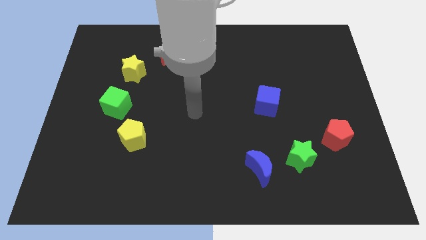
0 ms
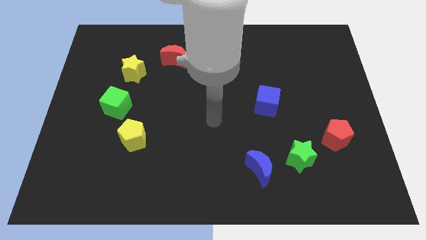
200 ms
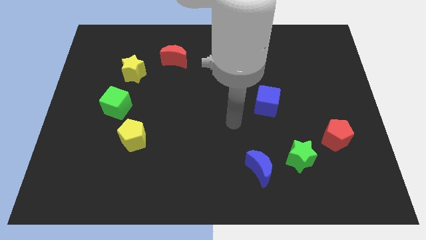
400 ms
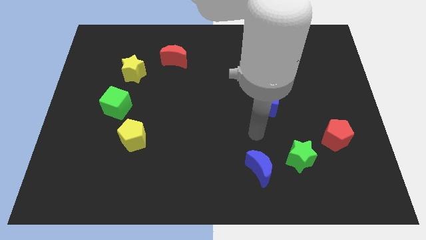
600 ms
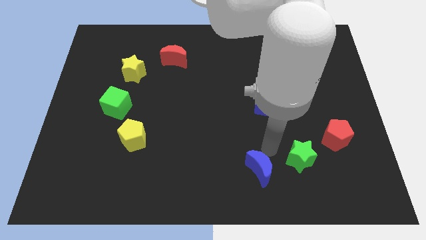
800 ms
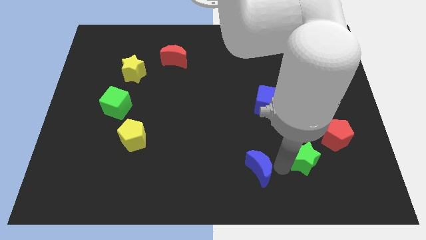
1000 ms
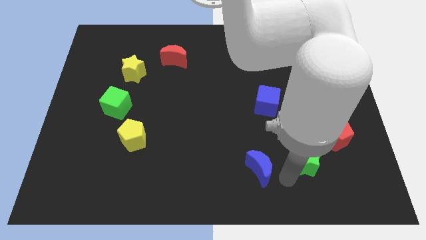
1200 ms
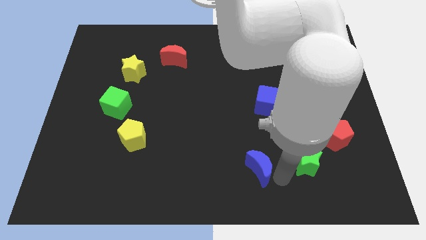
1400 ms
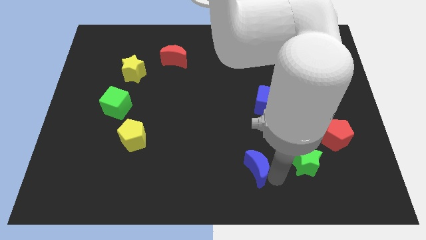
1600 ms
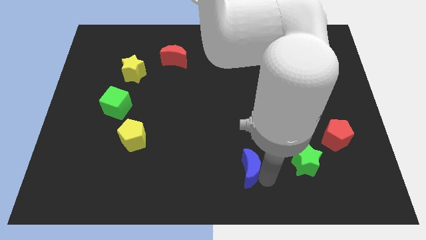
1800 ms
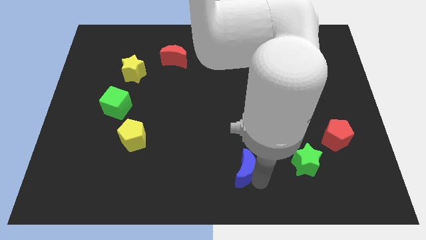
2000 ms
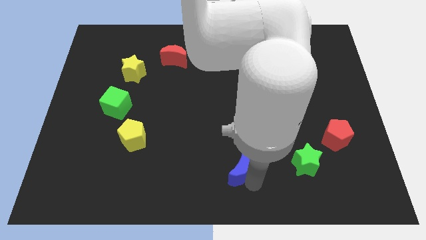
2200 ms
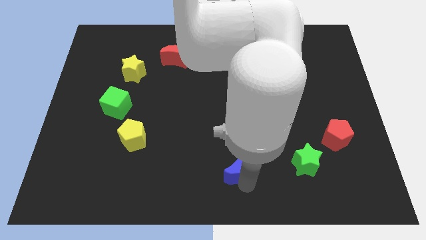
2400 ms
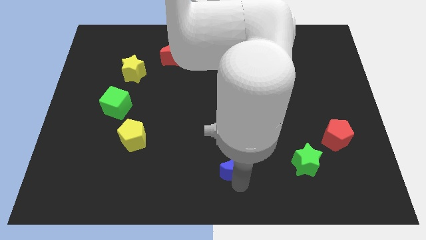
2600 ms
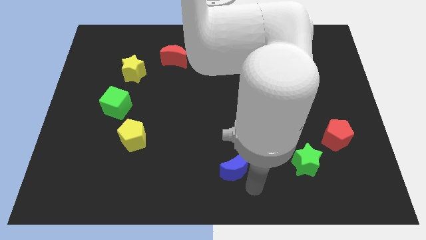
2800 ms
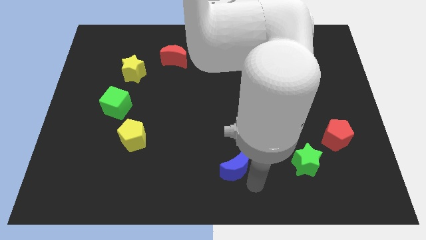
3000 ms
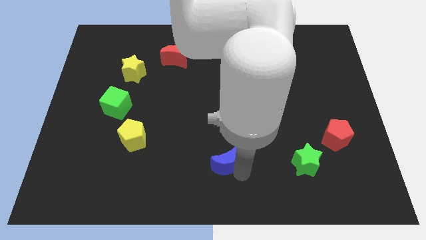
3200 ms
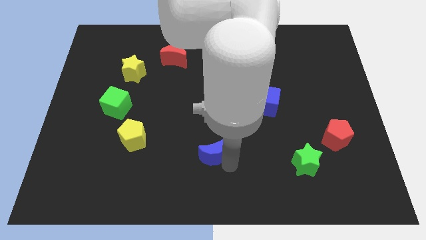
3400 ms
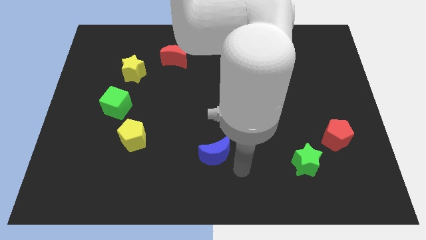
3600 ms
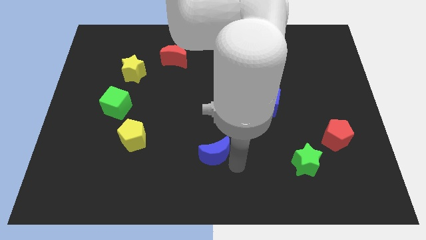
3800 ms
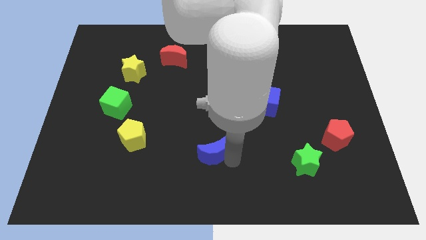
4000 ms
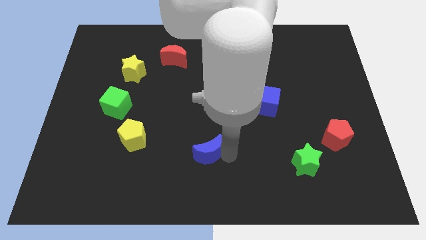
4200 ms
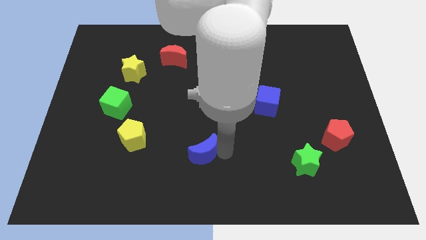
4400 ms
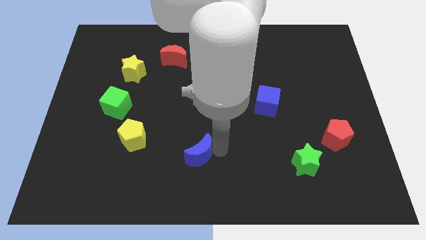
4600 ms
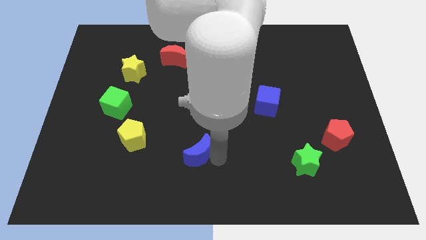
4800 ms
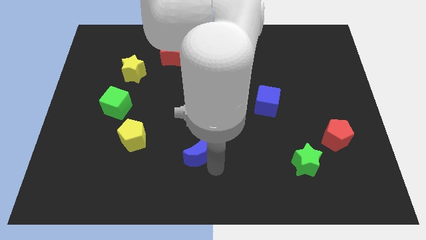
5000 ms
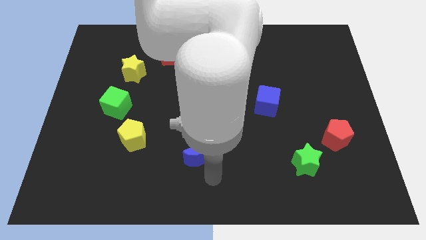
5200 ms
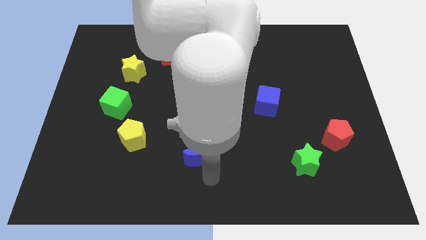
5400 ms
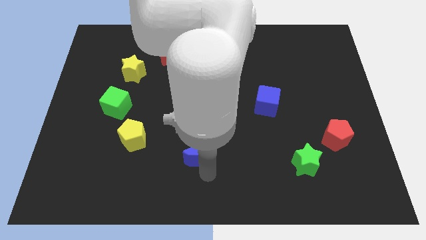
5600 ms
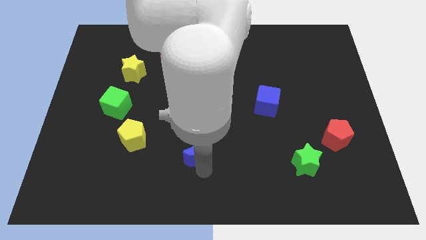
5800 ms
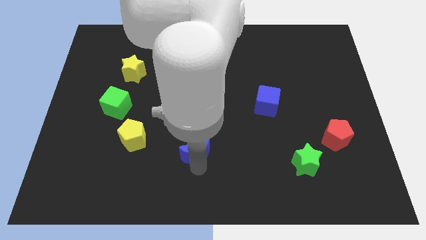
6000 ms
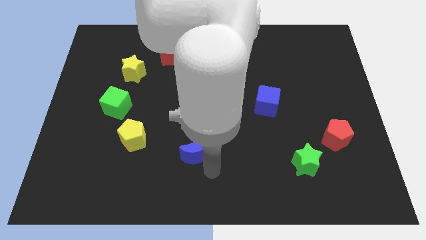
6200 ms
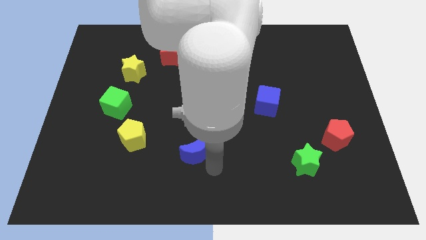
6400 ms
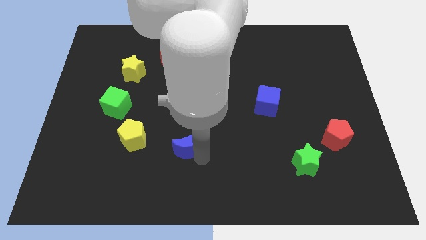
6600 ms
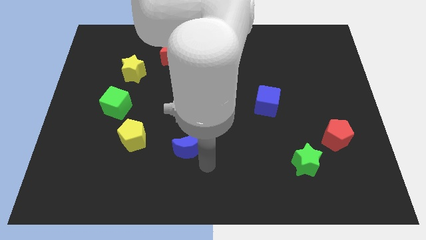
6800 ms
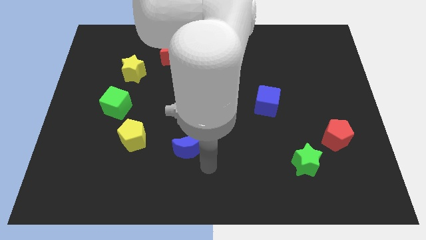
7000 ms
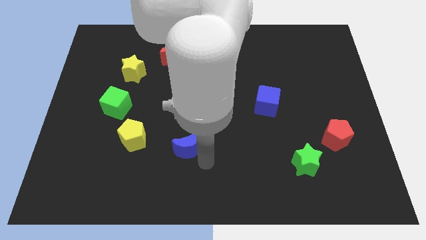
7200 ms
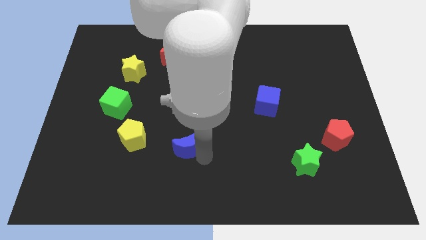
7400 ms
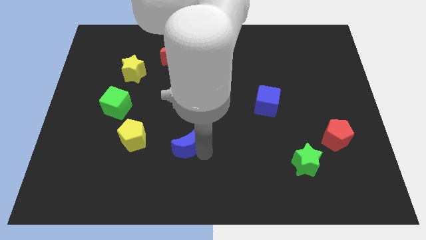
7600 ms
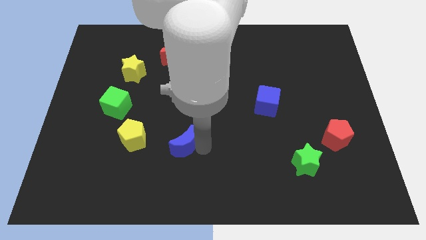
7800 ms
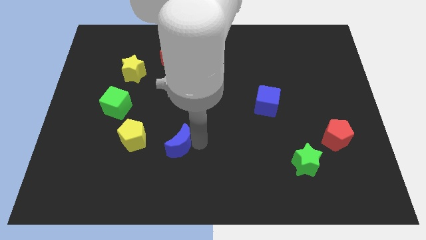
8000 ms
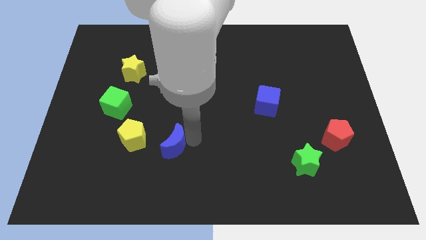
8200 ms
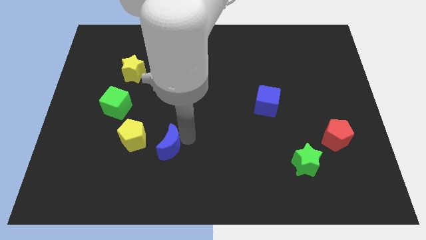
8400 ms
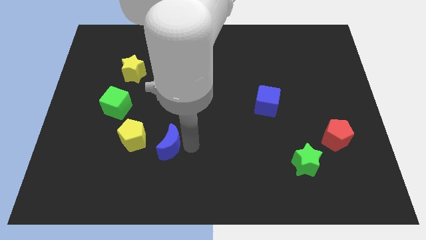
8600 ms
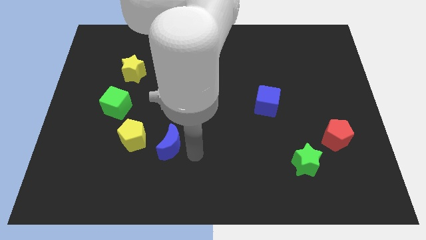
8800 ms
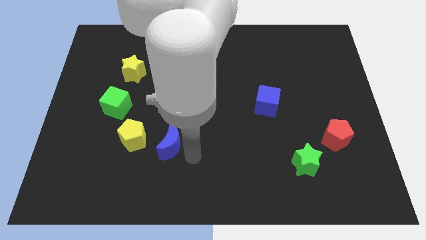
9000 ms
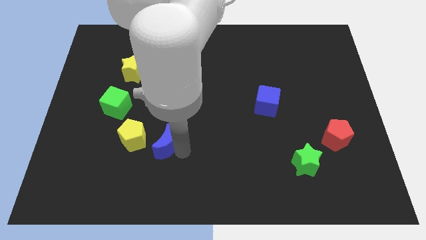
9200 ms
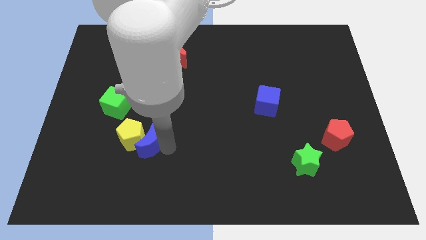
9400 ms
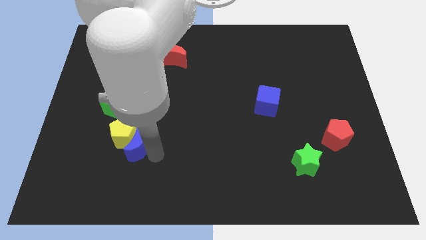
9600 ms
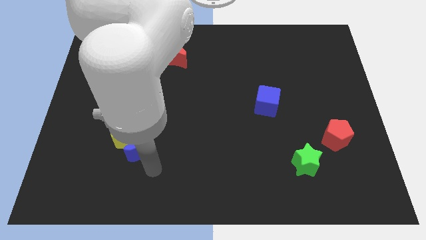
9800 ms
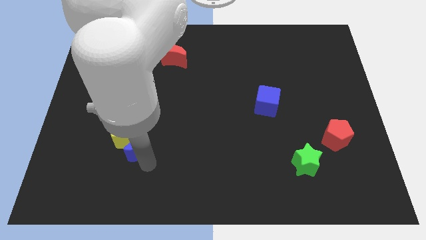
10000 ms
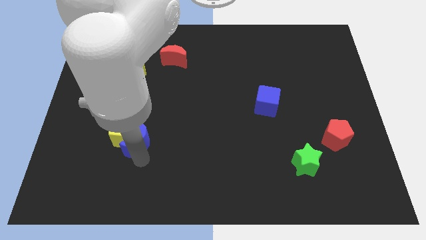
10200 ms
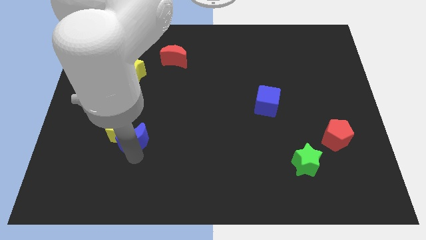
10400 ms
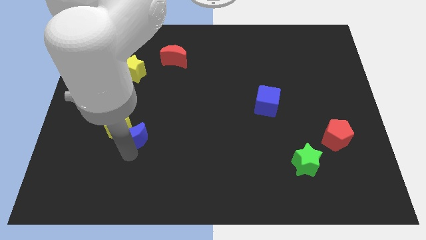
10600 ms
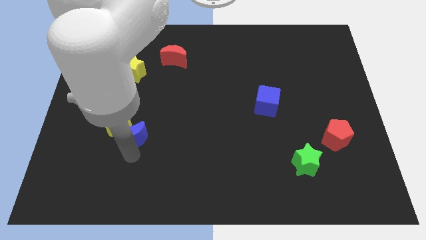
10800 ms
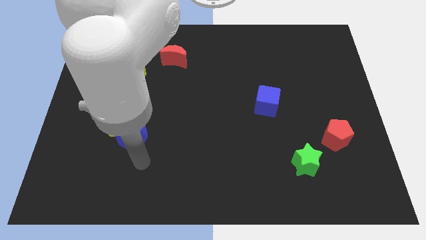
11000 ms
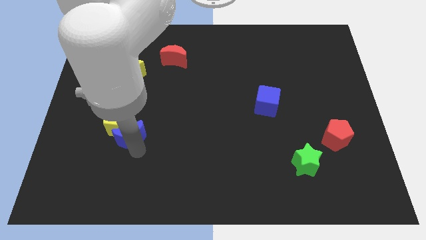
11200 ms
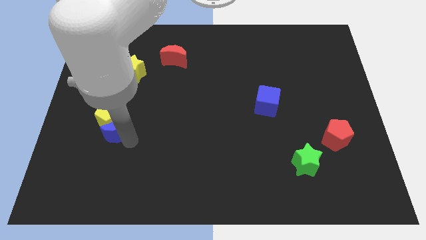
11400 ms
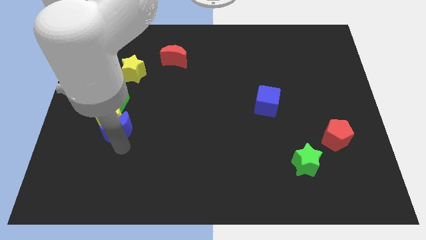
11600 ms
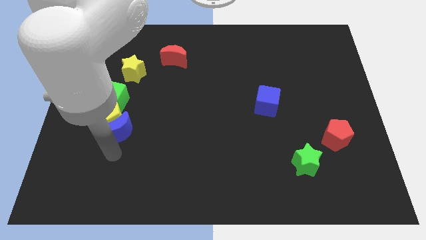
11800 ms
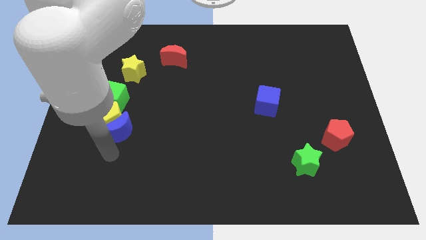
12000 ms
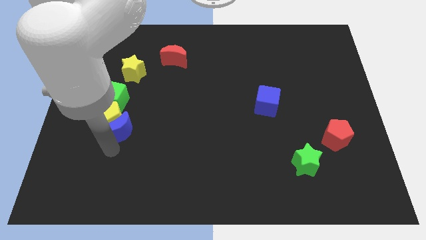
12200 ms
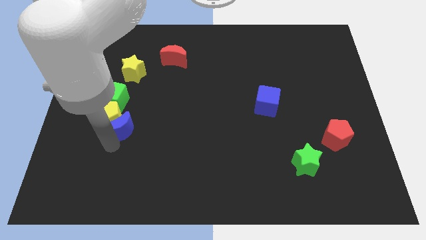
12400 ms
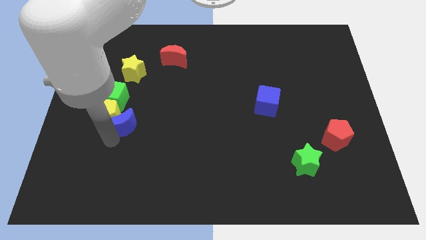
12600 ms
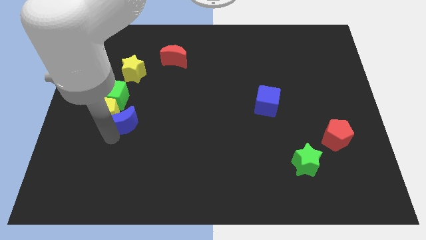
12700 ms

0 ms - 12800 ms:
push the blue moon below the yellow star

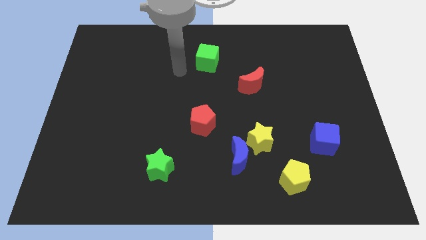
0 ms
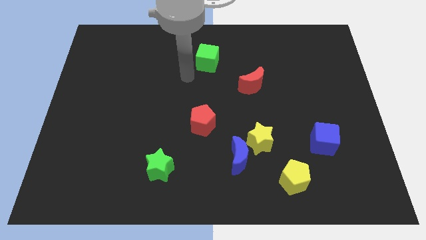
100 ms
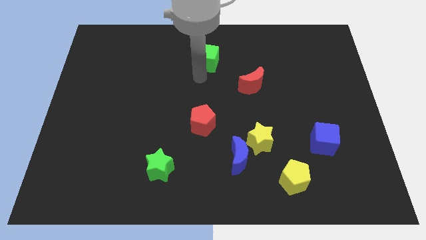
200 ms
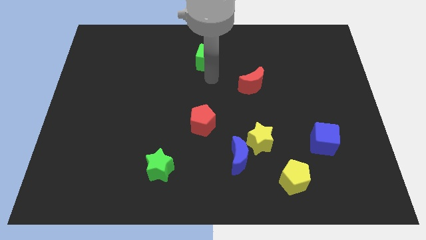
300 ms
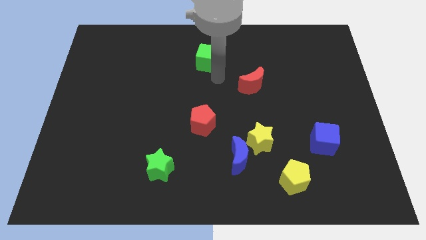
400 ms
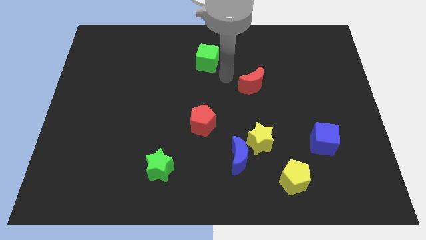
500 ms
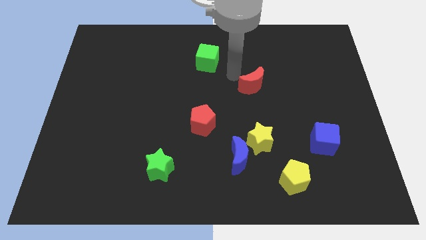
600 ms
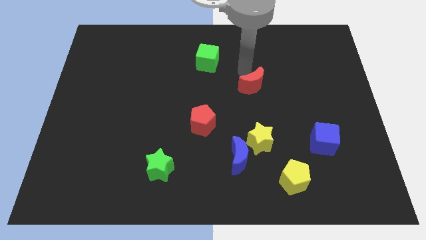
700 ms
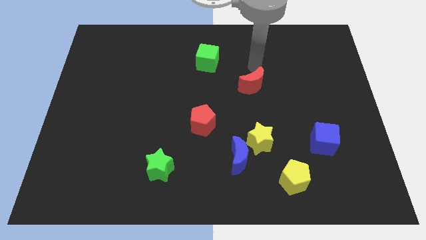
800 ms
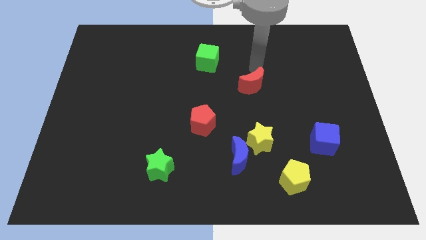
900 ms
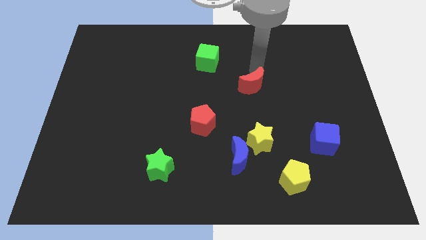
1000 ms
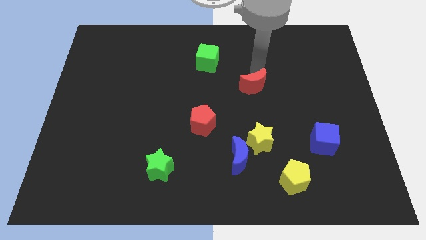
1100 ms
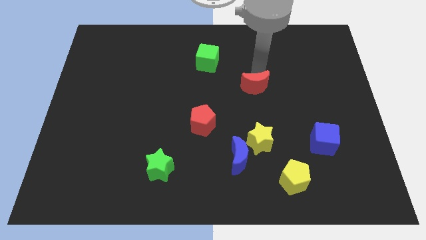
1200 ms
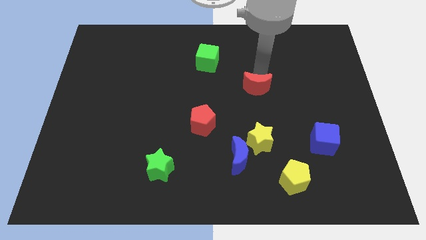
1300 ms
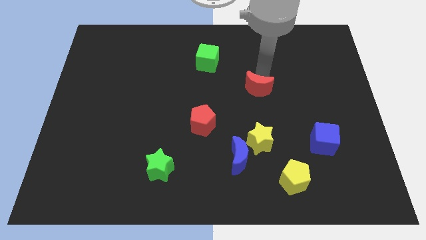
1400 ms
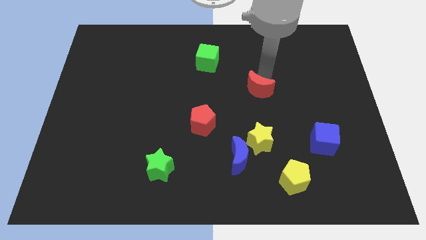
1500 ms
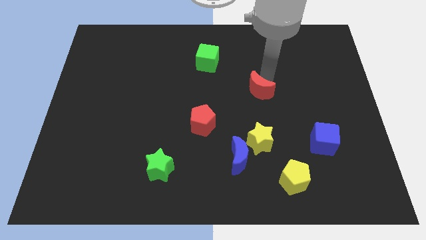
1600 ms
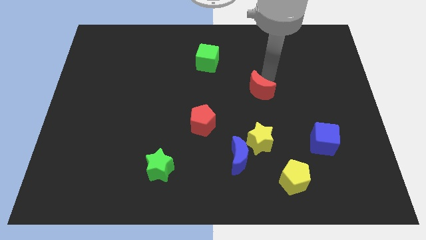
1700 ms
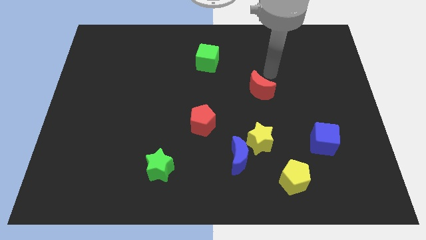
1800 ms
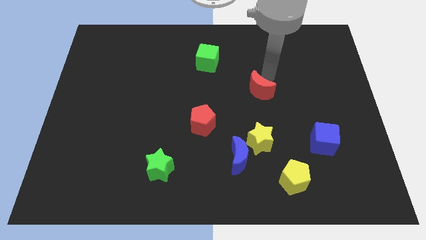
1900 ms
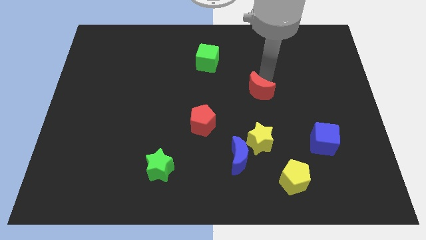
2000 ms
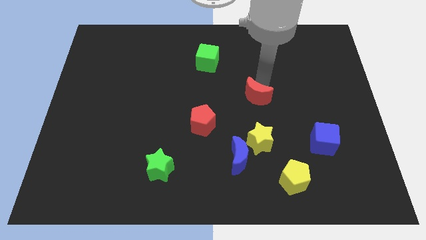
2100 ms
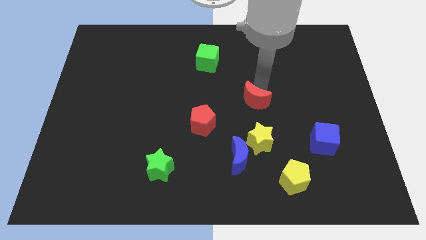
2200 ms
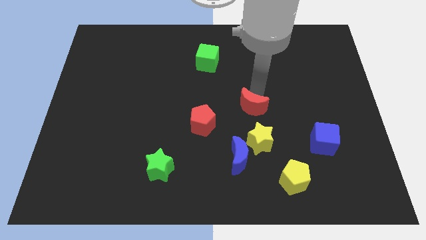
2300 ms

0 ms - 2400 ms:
push the red moon to the right side of the red pentagon
